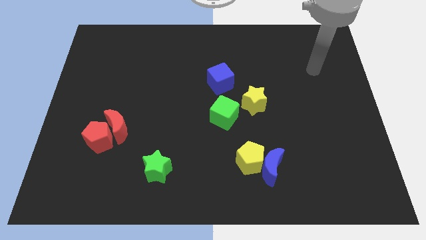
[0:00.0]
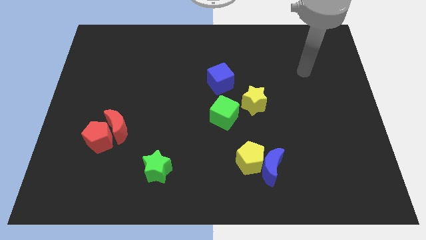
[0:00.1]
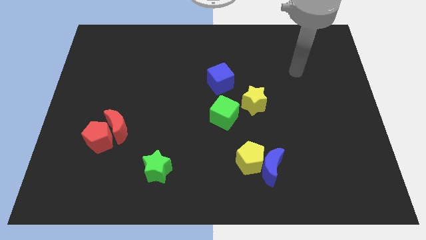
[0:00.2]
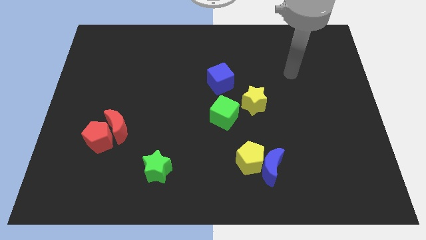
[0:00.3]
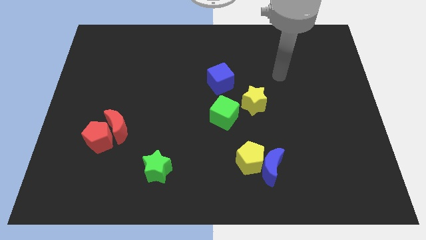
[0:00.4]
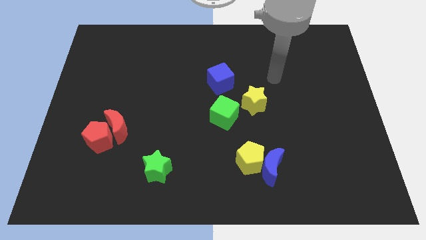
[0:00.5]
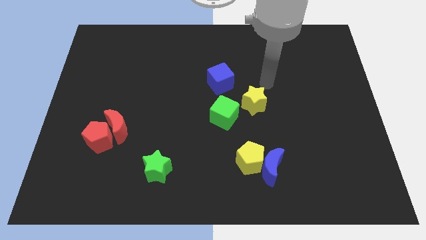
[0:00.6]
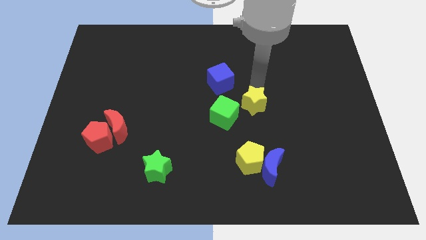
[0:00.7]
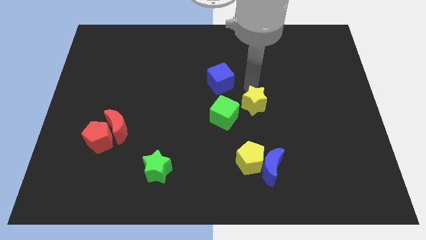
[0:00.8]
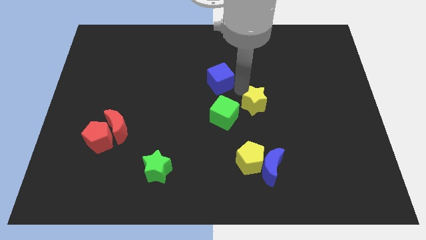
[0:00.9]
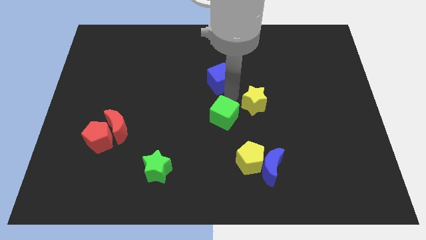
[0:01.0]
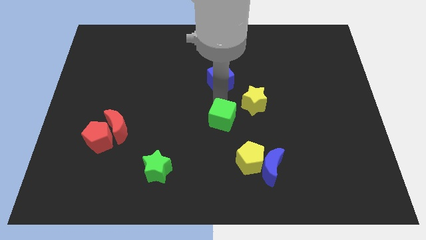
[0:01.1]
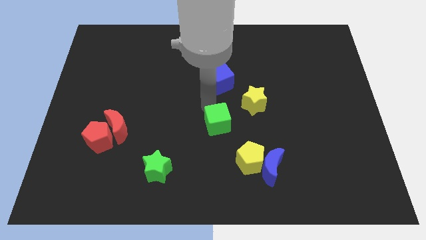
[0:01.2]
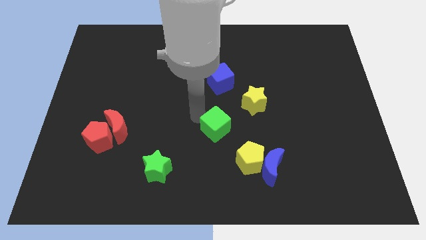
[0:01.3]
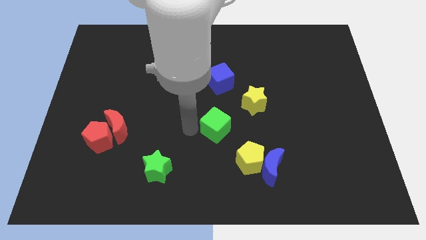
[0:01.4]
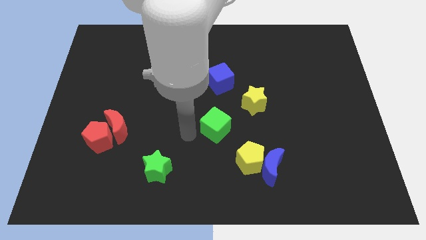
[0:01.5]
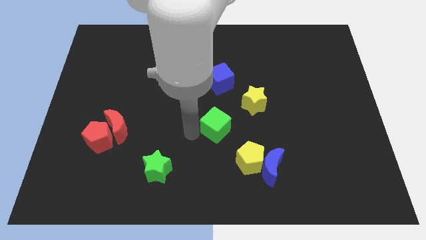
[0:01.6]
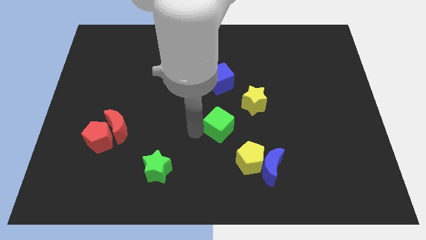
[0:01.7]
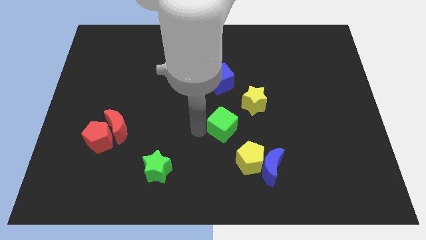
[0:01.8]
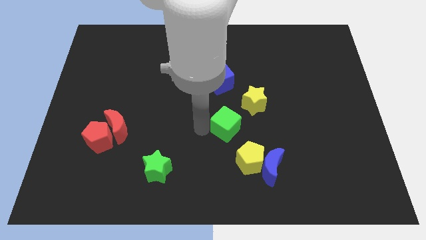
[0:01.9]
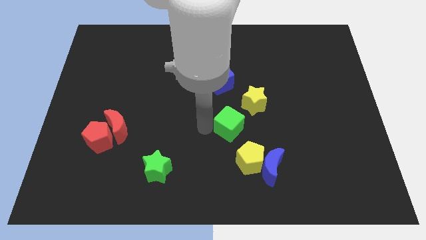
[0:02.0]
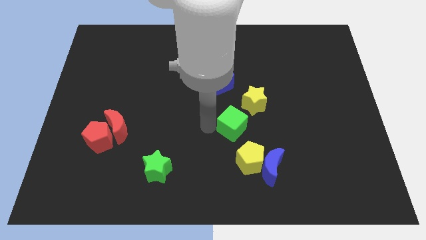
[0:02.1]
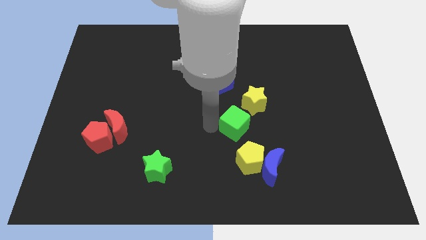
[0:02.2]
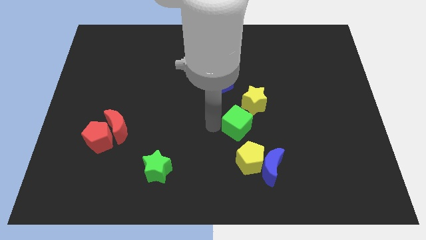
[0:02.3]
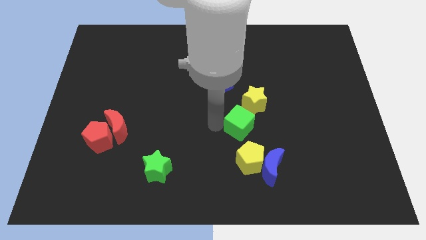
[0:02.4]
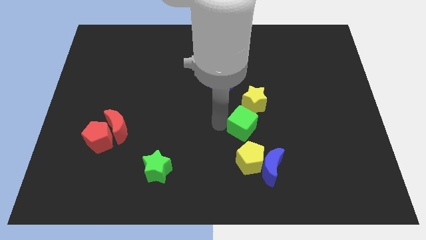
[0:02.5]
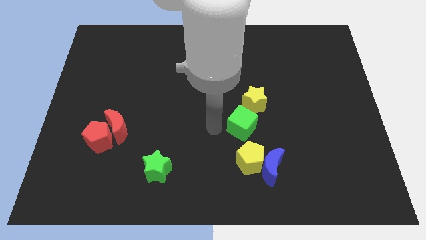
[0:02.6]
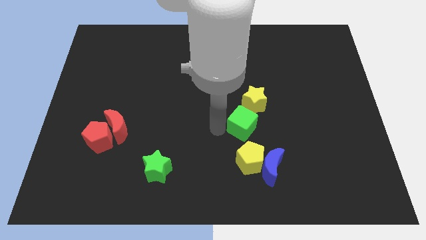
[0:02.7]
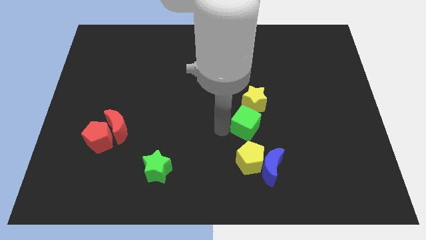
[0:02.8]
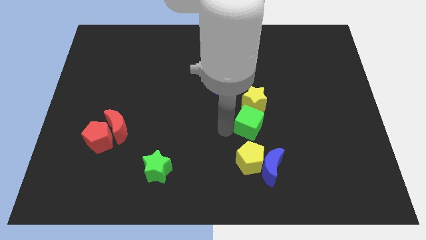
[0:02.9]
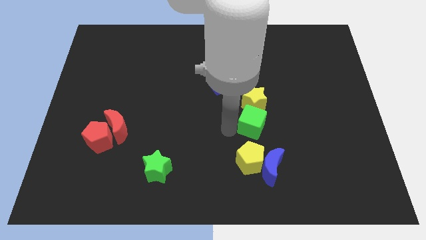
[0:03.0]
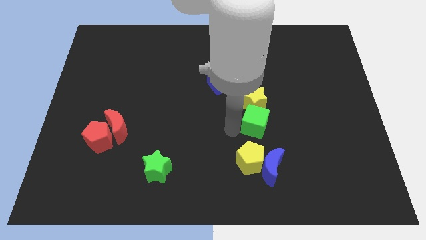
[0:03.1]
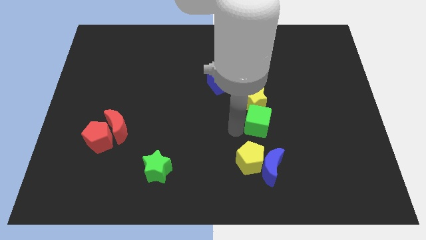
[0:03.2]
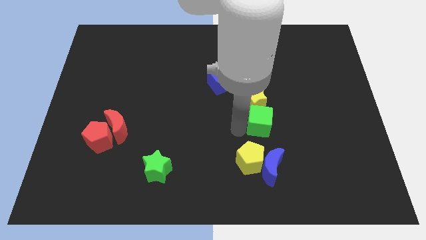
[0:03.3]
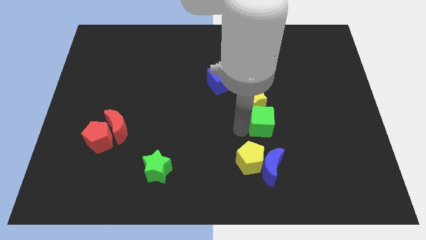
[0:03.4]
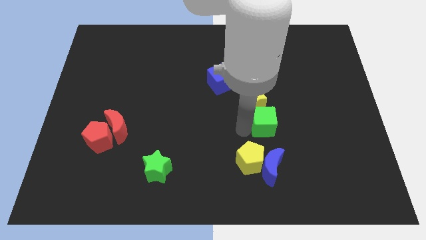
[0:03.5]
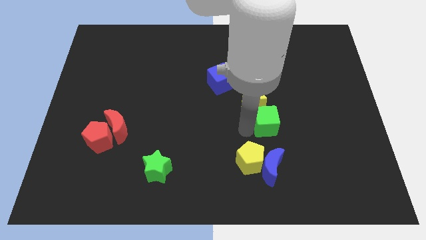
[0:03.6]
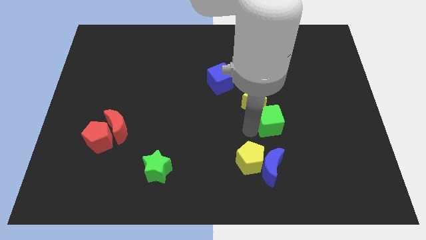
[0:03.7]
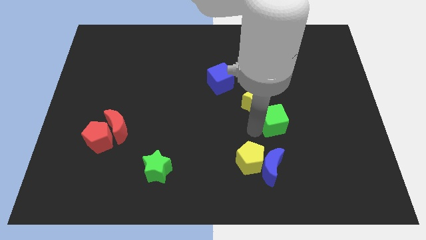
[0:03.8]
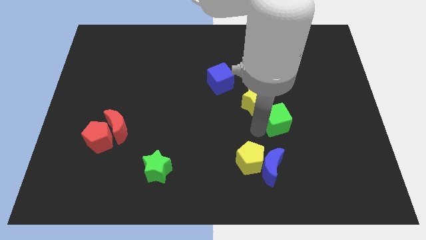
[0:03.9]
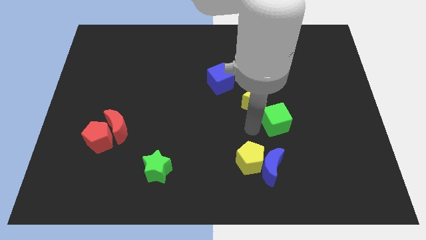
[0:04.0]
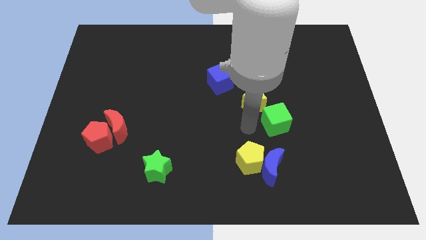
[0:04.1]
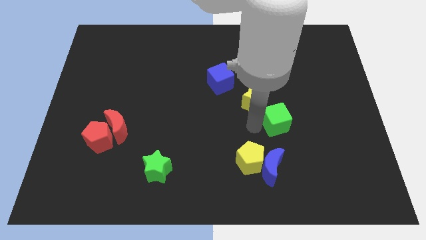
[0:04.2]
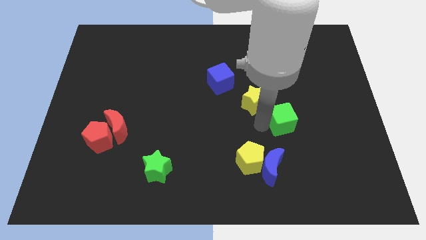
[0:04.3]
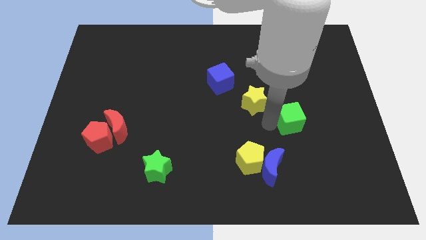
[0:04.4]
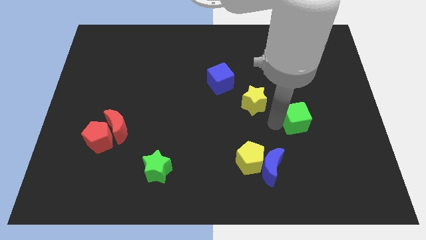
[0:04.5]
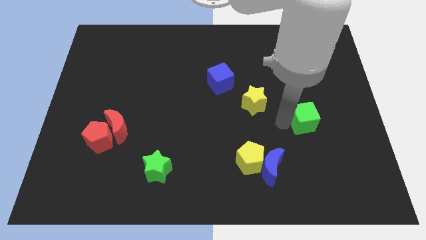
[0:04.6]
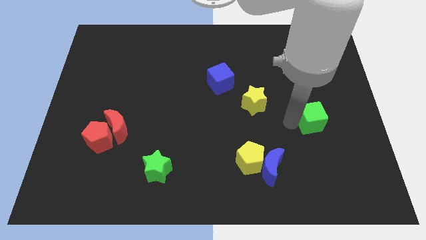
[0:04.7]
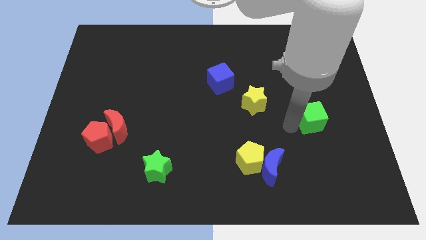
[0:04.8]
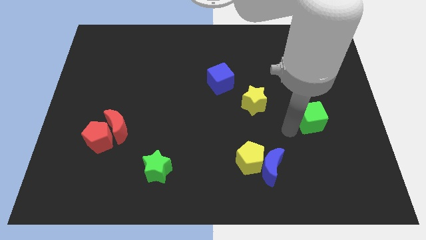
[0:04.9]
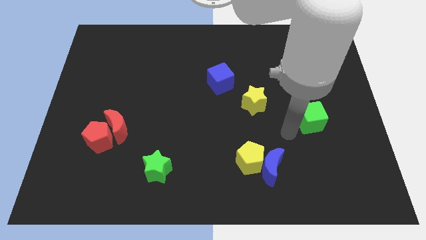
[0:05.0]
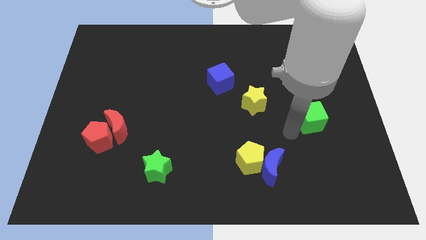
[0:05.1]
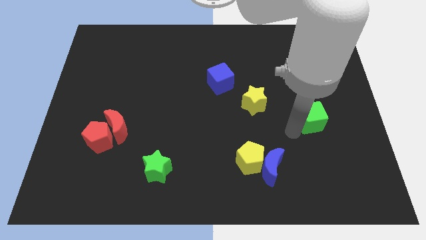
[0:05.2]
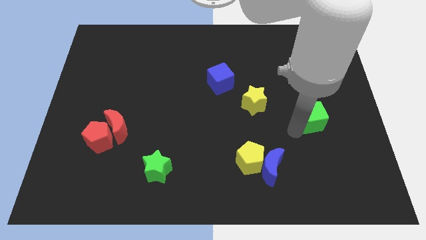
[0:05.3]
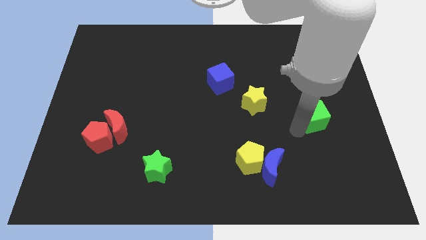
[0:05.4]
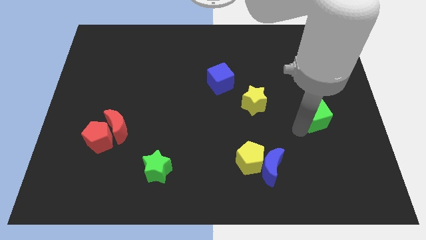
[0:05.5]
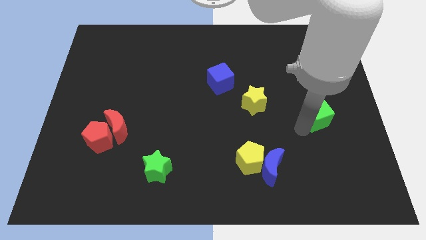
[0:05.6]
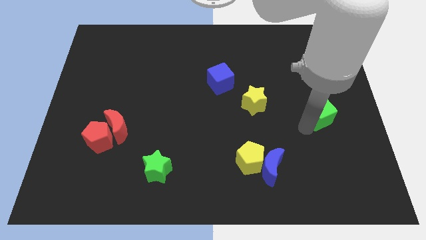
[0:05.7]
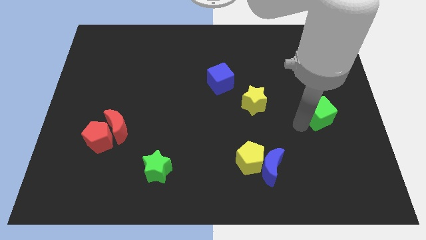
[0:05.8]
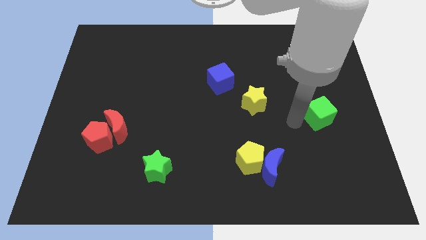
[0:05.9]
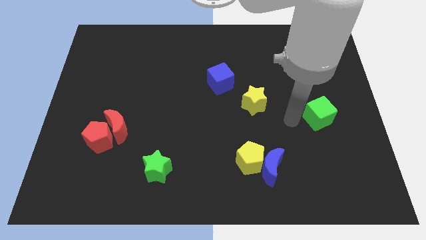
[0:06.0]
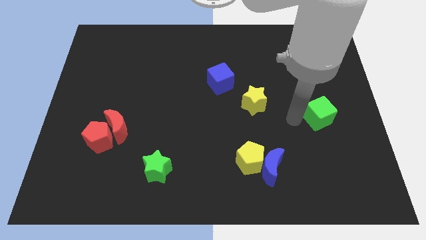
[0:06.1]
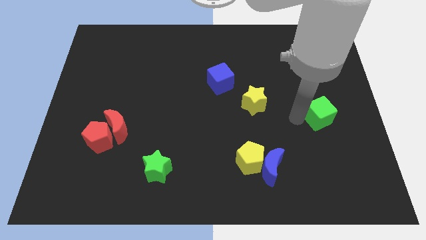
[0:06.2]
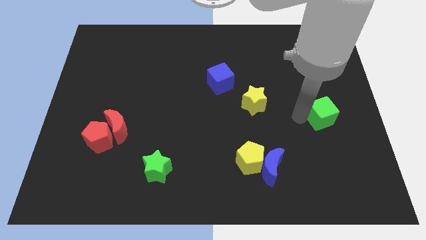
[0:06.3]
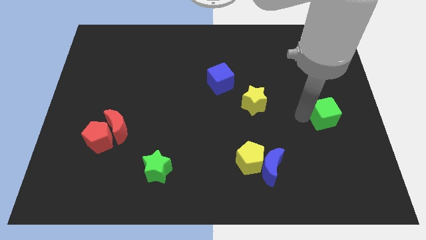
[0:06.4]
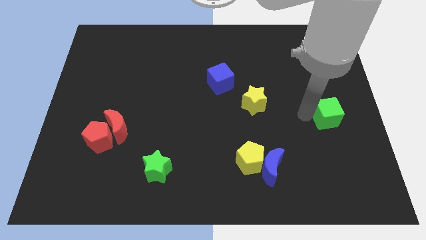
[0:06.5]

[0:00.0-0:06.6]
move the green cube to the right side of the board
